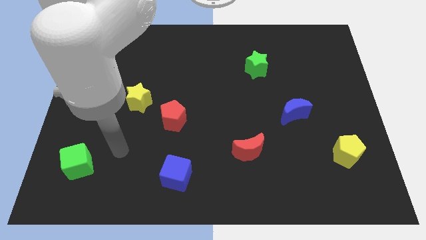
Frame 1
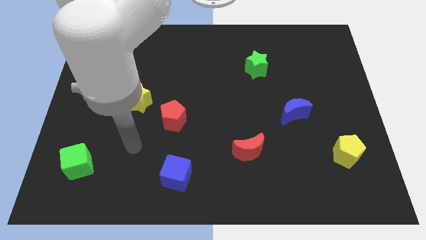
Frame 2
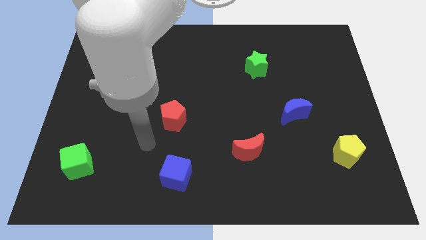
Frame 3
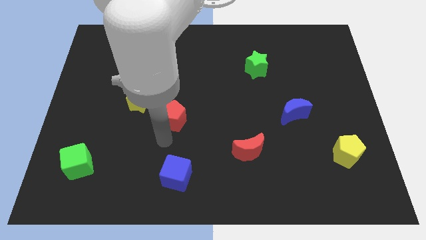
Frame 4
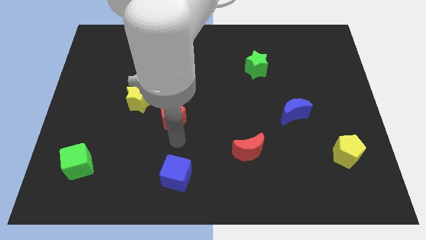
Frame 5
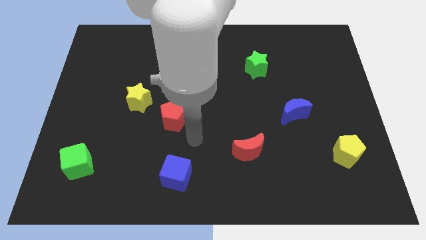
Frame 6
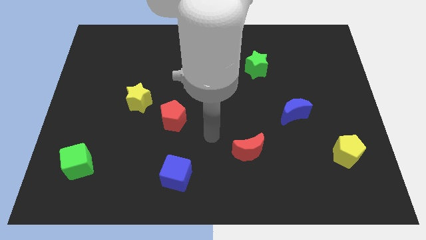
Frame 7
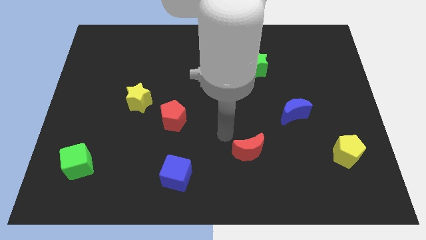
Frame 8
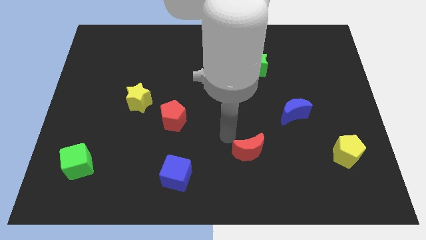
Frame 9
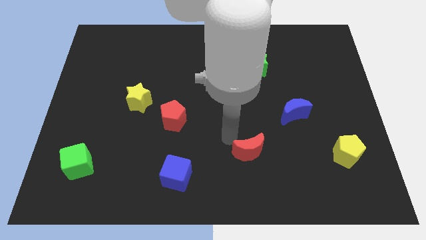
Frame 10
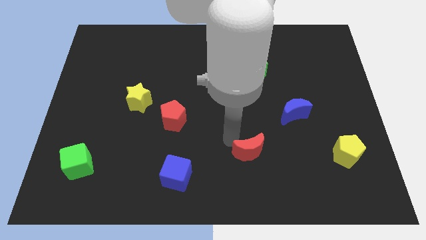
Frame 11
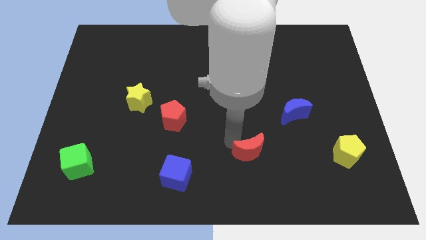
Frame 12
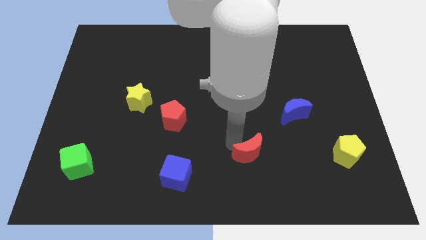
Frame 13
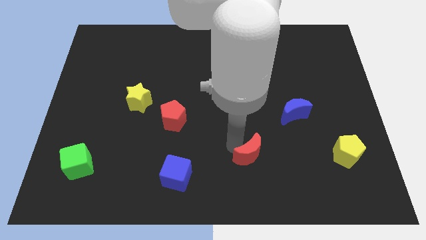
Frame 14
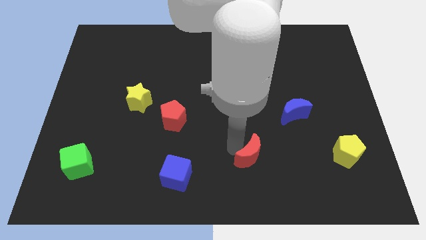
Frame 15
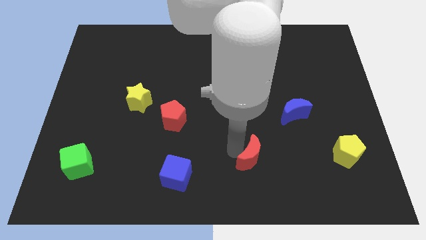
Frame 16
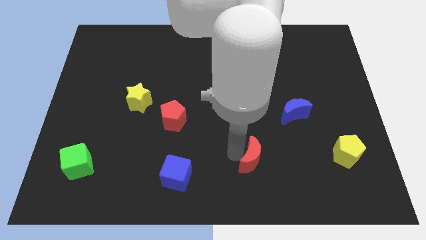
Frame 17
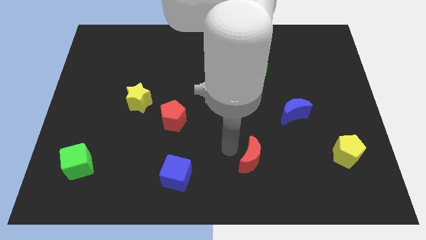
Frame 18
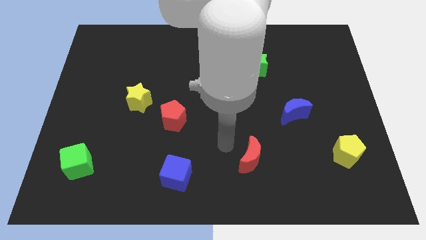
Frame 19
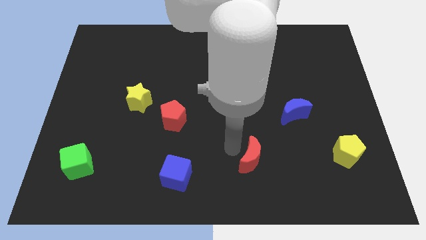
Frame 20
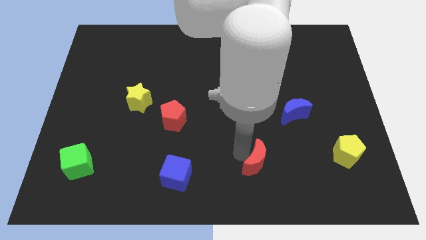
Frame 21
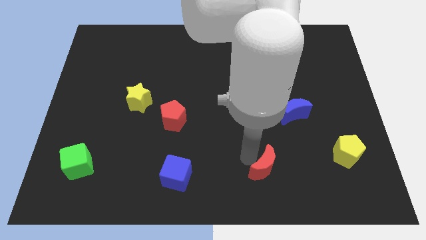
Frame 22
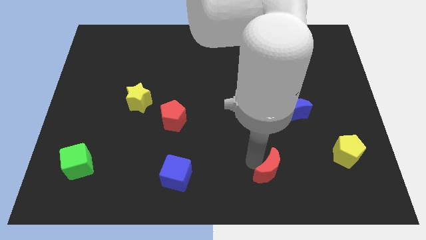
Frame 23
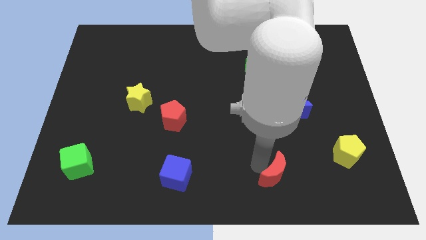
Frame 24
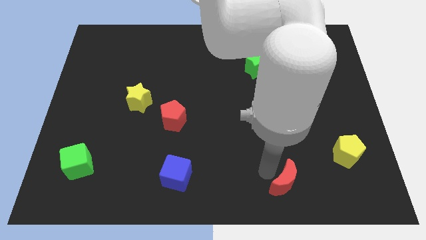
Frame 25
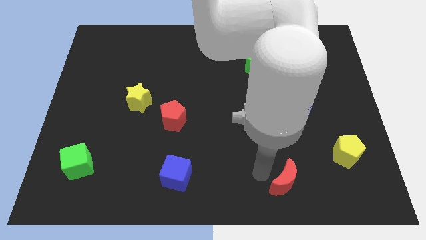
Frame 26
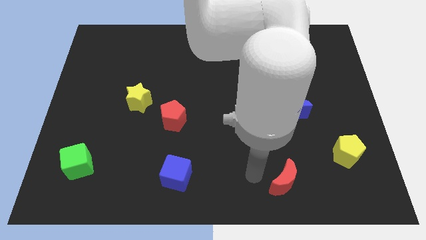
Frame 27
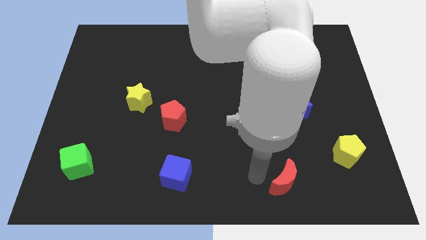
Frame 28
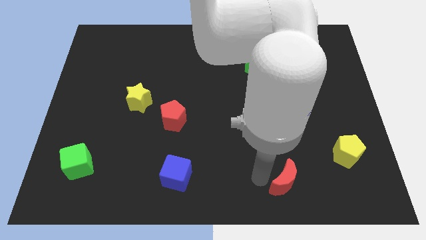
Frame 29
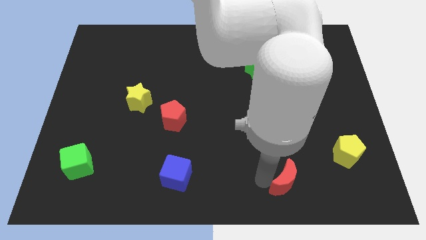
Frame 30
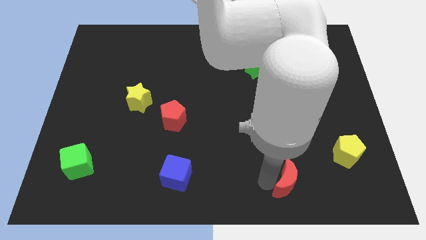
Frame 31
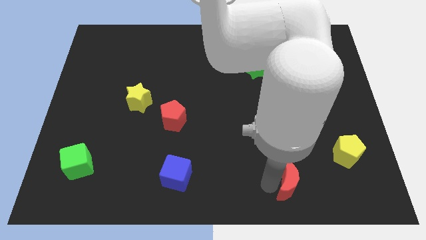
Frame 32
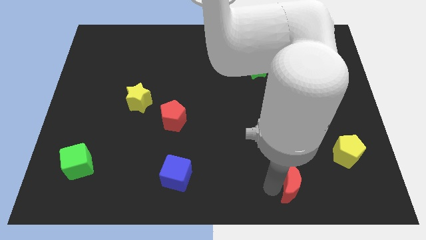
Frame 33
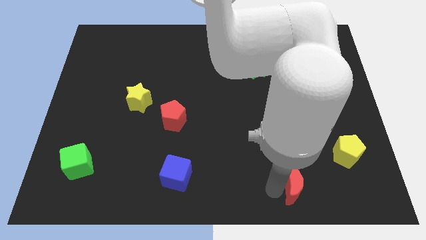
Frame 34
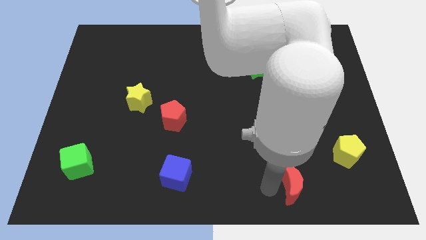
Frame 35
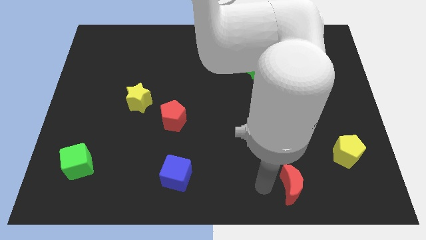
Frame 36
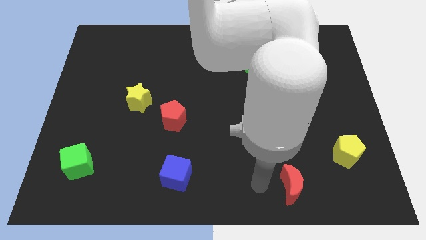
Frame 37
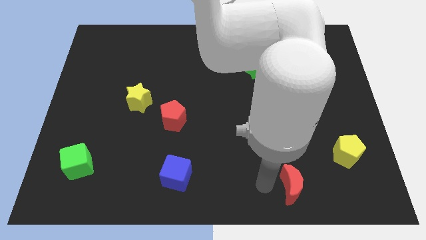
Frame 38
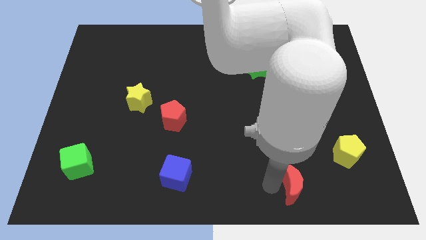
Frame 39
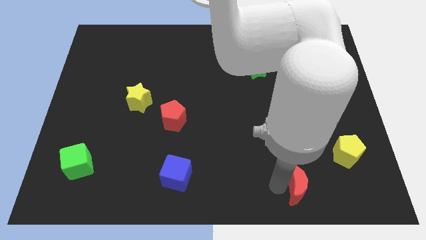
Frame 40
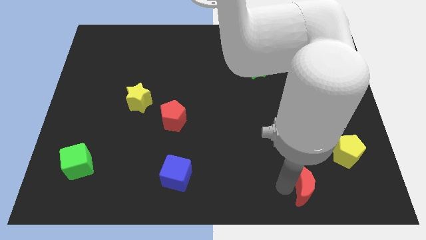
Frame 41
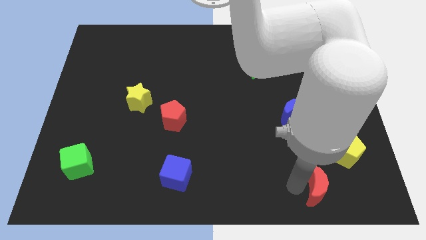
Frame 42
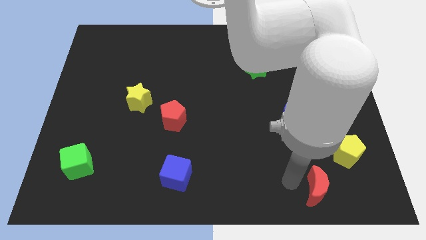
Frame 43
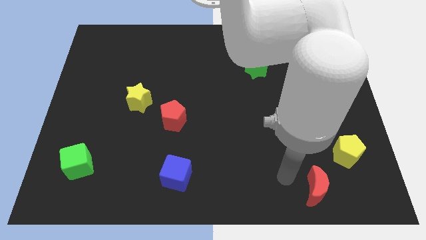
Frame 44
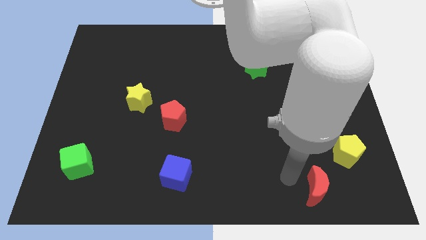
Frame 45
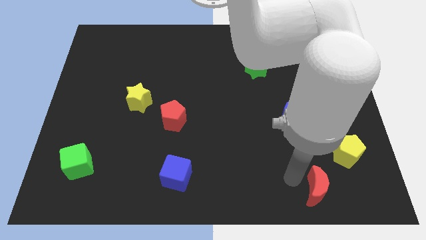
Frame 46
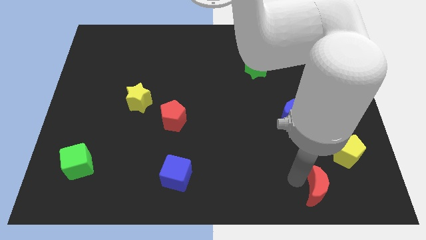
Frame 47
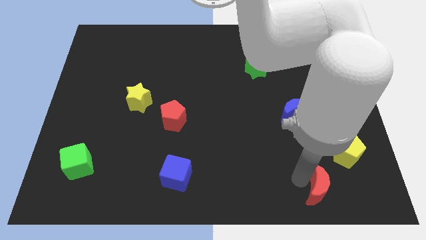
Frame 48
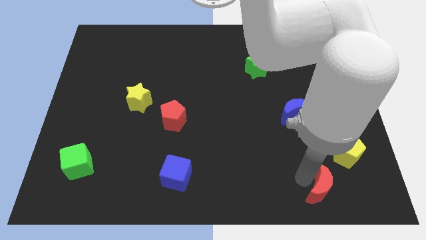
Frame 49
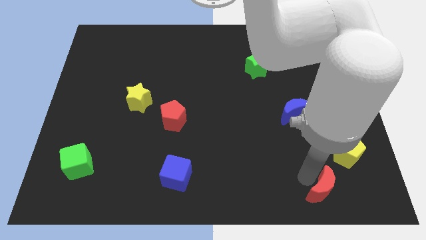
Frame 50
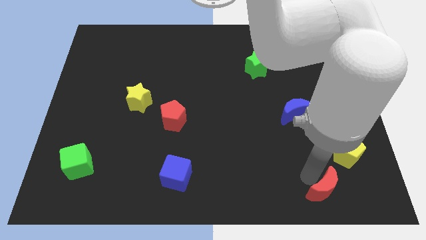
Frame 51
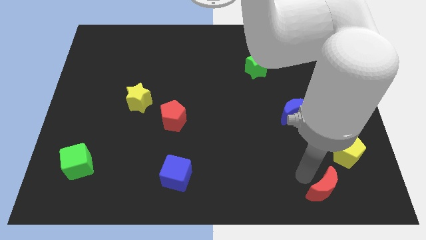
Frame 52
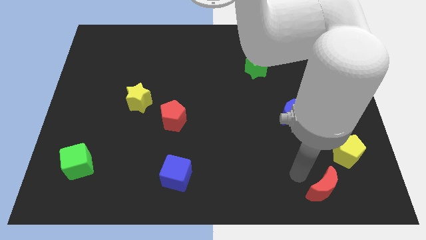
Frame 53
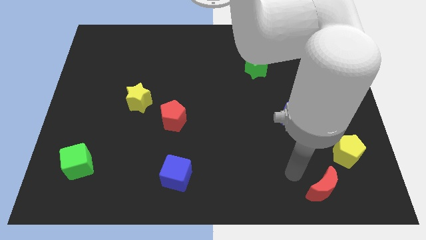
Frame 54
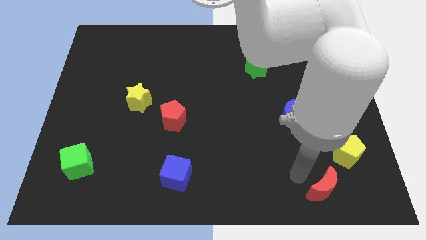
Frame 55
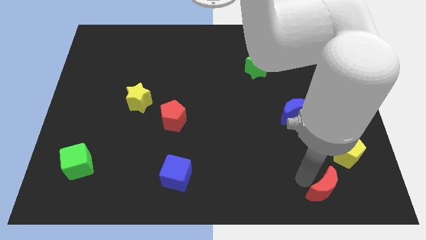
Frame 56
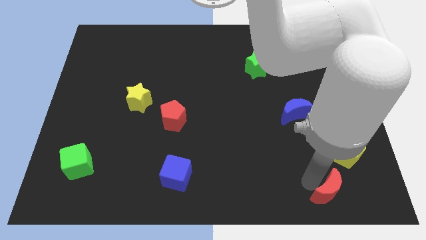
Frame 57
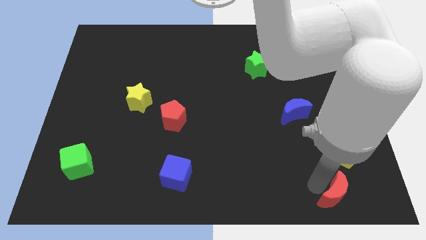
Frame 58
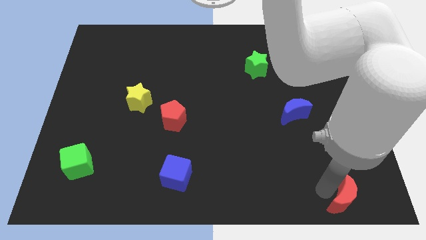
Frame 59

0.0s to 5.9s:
put the red moon to the bottom right corner
